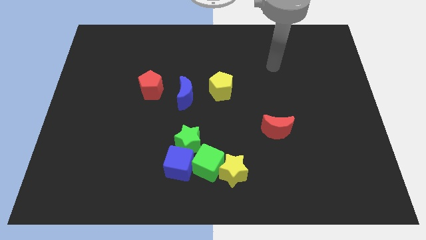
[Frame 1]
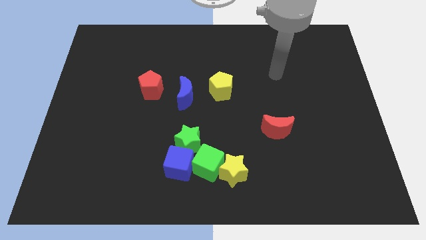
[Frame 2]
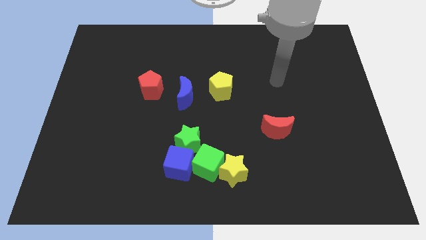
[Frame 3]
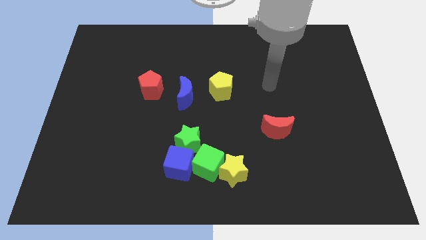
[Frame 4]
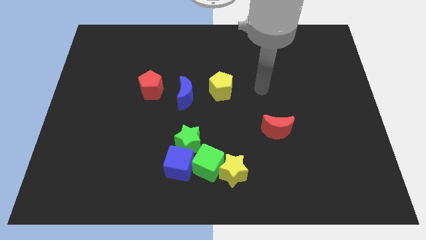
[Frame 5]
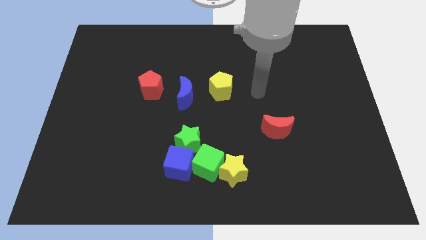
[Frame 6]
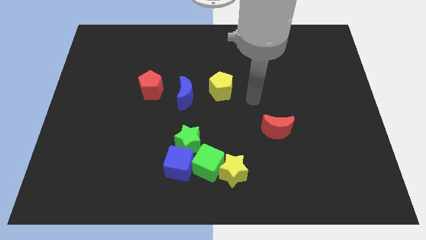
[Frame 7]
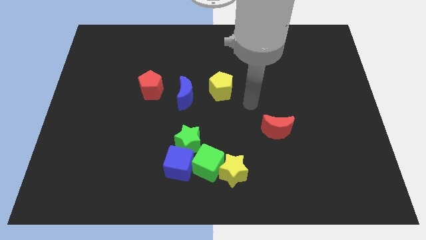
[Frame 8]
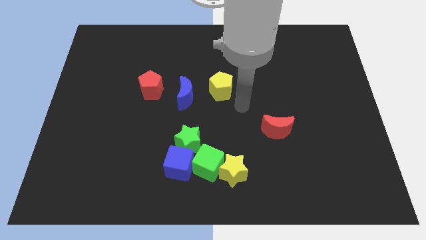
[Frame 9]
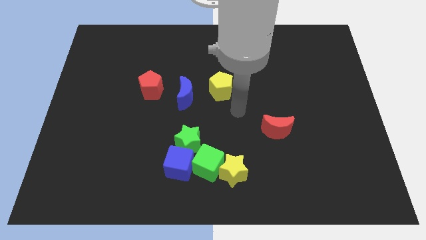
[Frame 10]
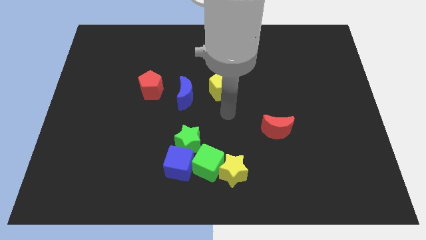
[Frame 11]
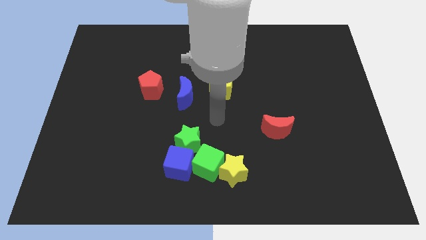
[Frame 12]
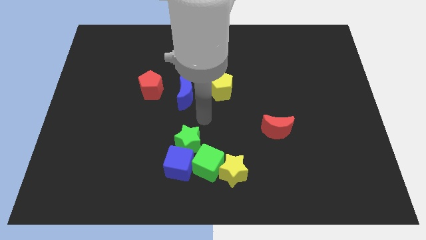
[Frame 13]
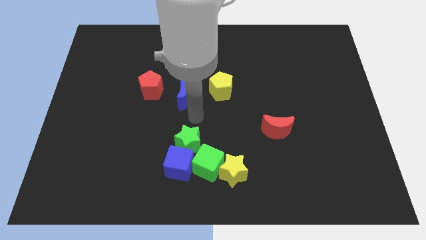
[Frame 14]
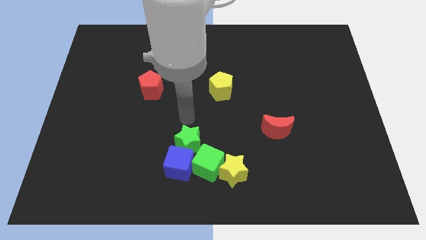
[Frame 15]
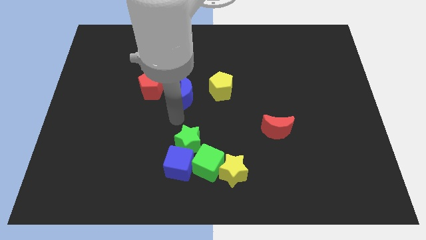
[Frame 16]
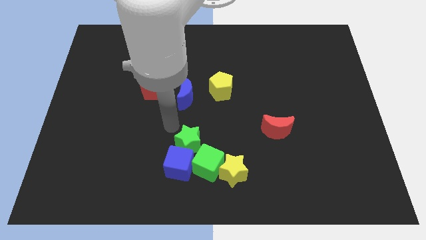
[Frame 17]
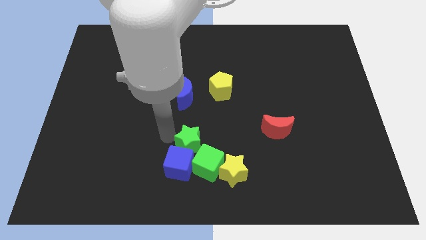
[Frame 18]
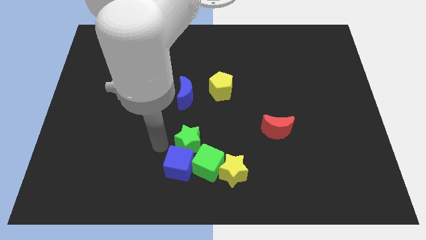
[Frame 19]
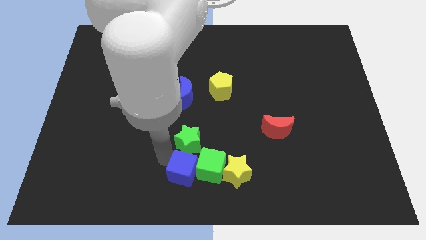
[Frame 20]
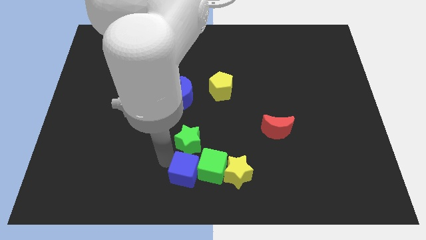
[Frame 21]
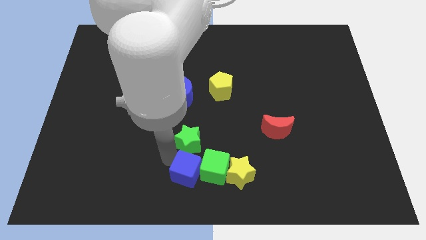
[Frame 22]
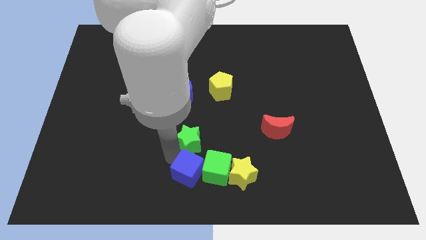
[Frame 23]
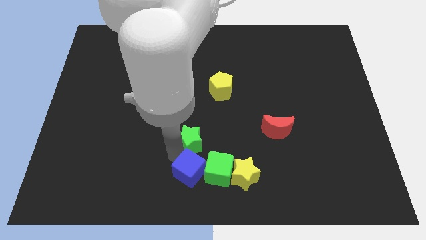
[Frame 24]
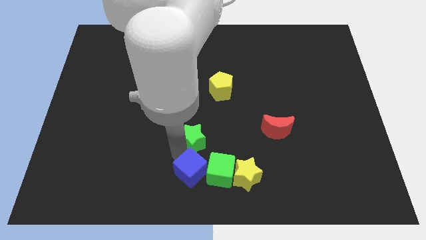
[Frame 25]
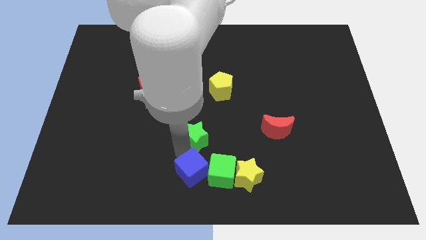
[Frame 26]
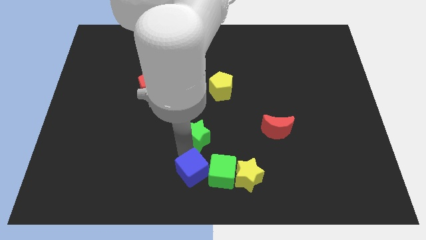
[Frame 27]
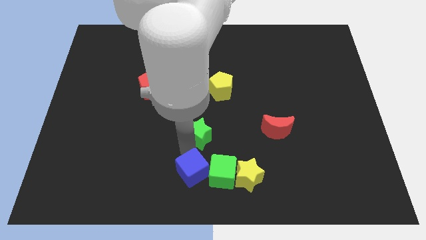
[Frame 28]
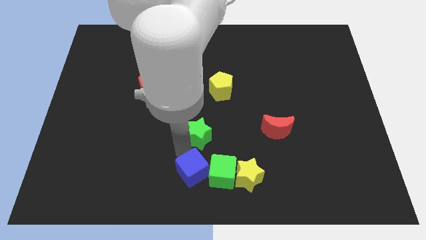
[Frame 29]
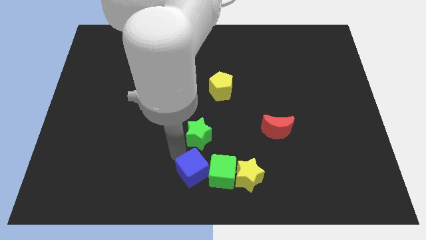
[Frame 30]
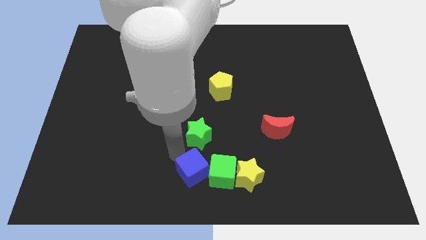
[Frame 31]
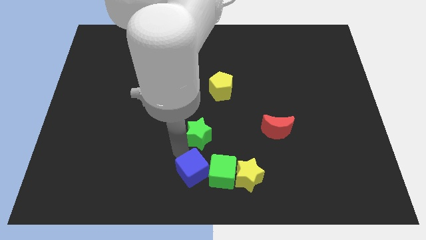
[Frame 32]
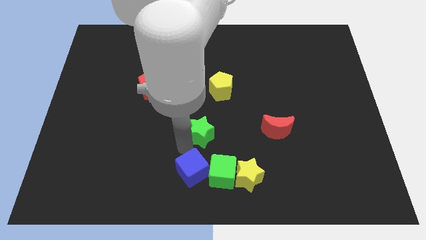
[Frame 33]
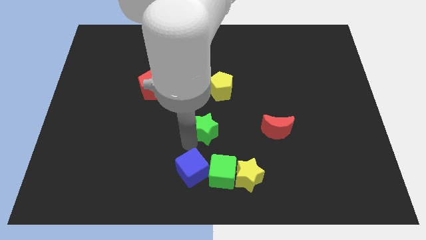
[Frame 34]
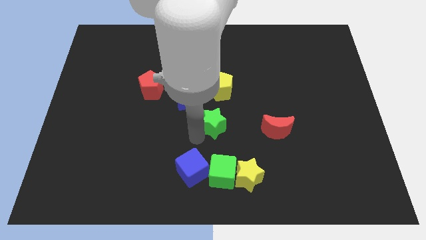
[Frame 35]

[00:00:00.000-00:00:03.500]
slide the green star a little bit up and then right

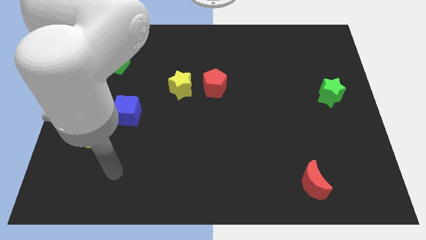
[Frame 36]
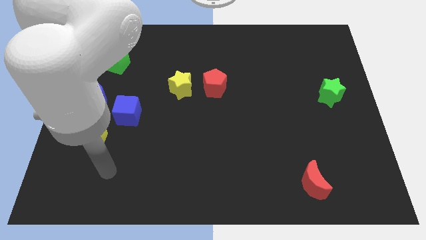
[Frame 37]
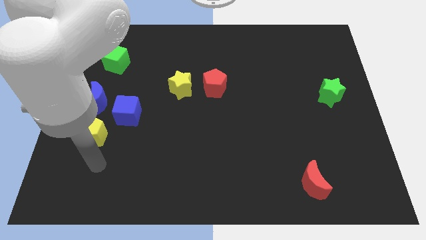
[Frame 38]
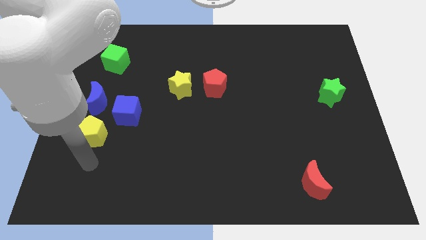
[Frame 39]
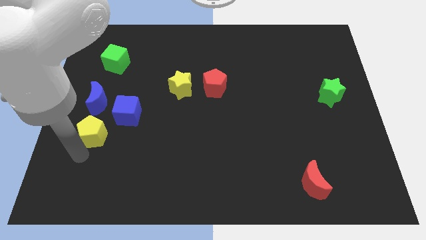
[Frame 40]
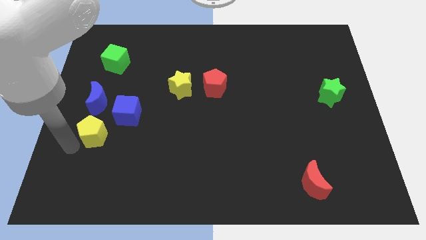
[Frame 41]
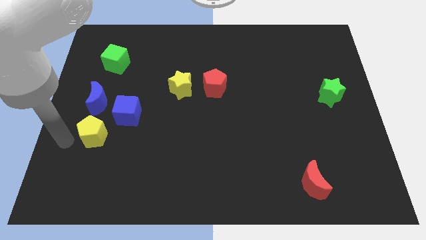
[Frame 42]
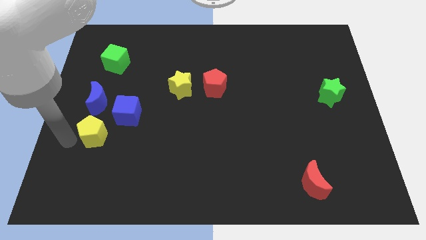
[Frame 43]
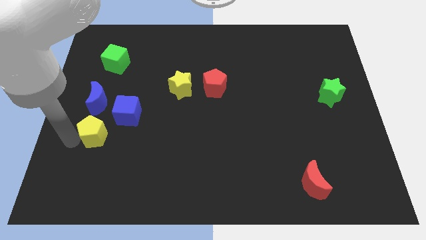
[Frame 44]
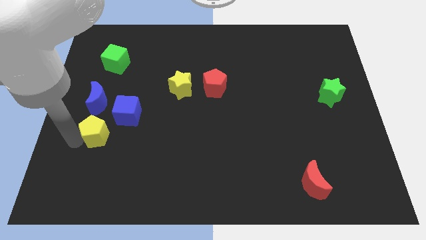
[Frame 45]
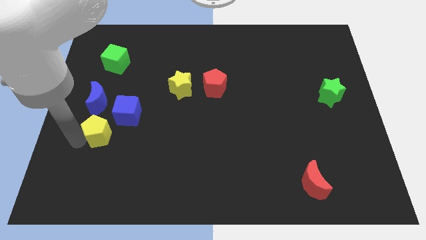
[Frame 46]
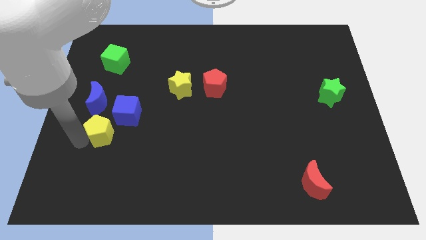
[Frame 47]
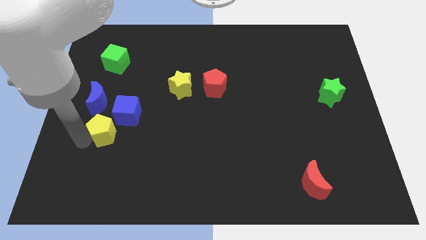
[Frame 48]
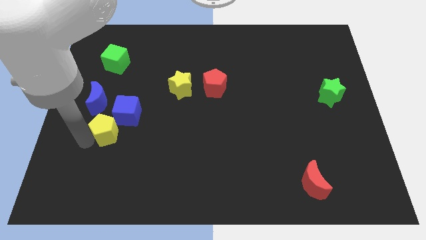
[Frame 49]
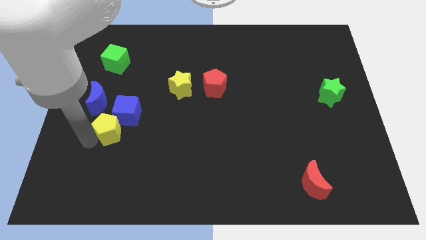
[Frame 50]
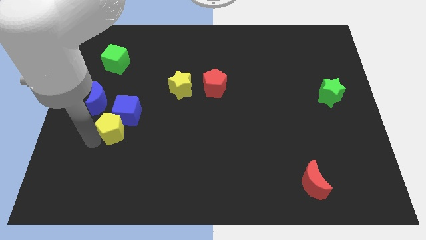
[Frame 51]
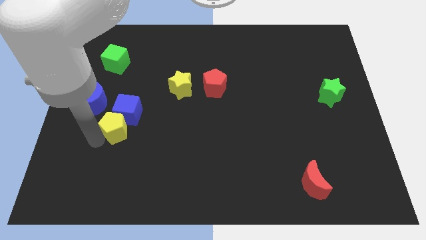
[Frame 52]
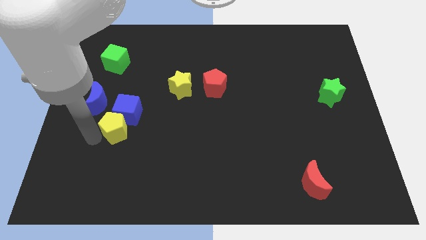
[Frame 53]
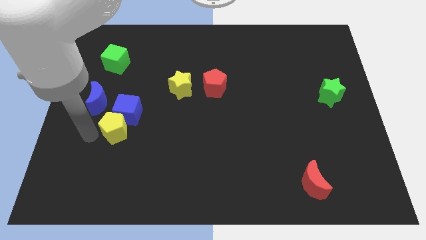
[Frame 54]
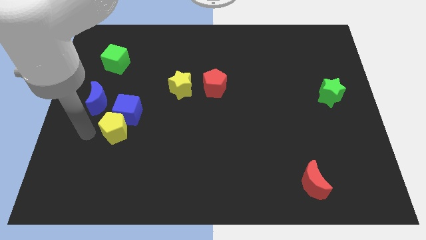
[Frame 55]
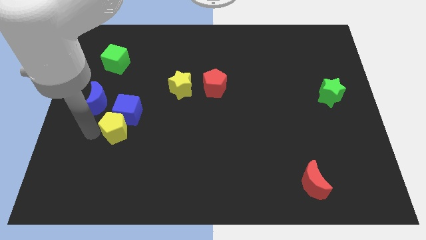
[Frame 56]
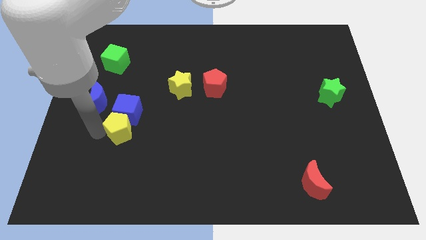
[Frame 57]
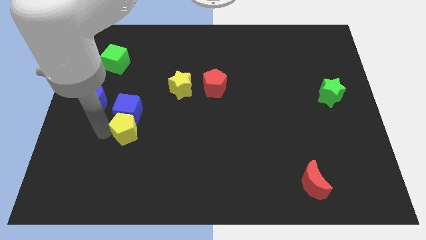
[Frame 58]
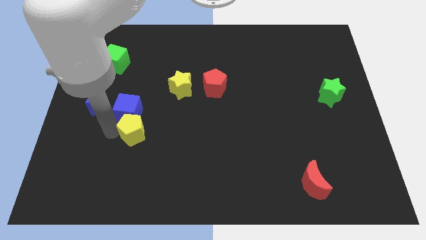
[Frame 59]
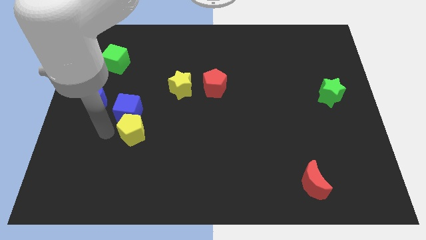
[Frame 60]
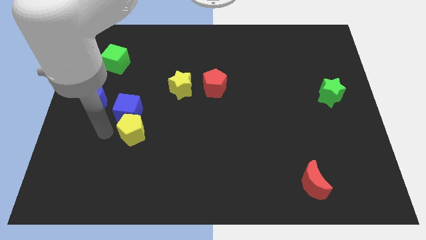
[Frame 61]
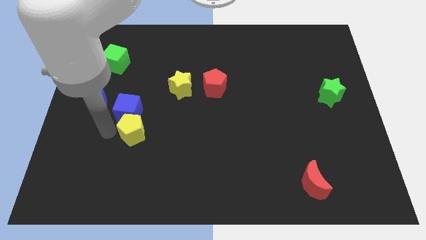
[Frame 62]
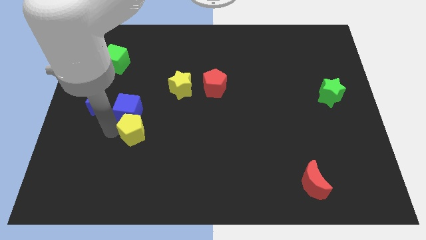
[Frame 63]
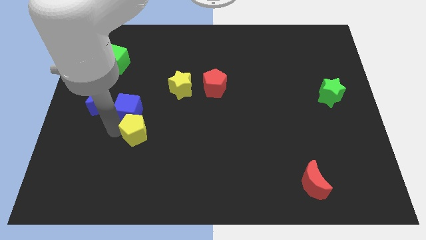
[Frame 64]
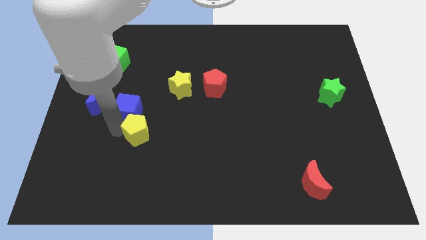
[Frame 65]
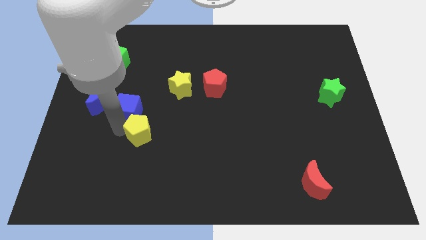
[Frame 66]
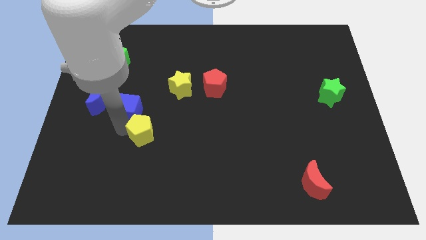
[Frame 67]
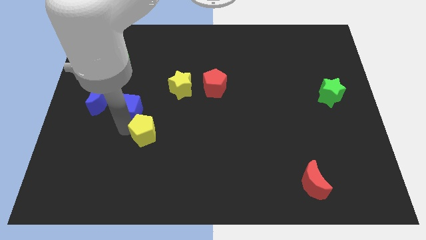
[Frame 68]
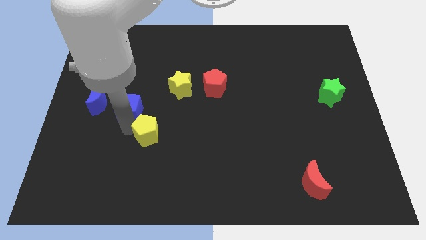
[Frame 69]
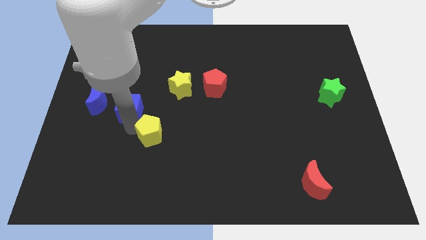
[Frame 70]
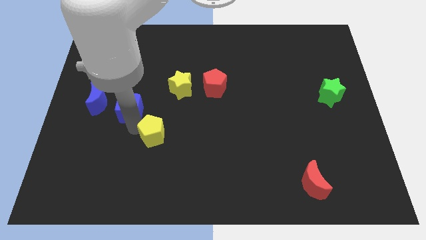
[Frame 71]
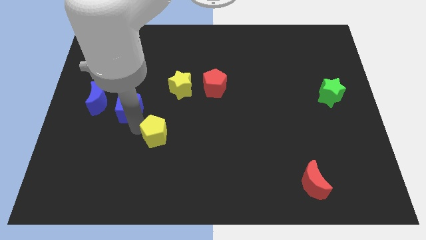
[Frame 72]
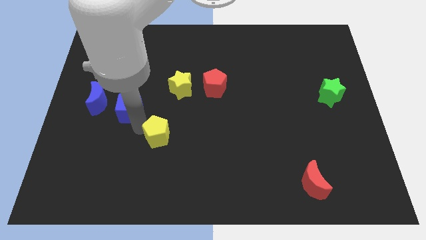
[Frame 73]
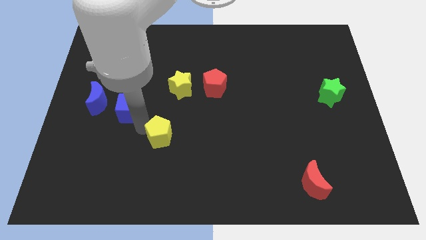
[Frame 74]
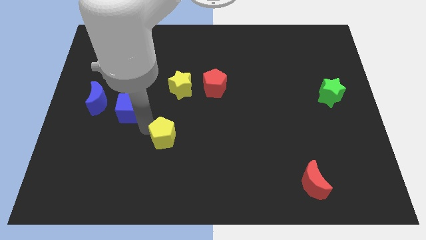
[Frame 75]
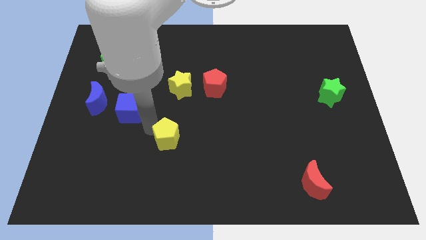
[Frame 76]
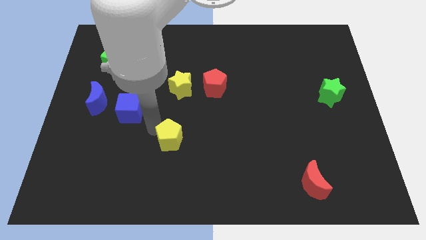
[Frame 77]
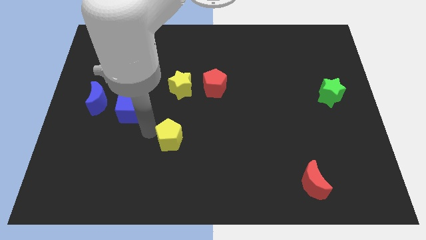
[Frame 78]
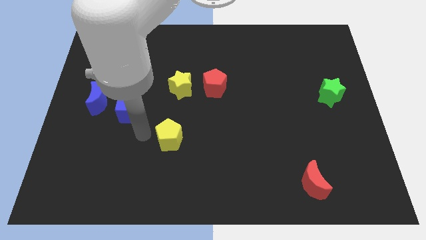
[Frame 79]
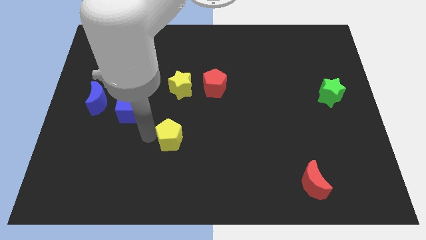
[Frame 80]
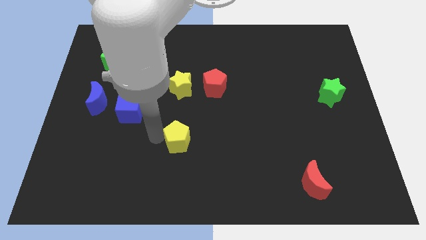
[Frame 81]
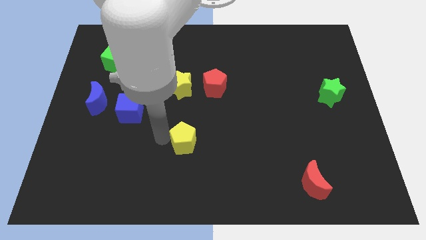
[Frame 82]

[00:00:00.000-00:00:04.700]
move the yellow pentagon right
